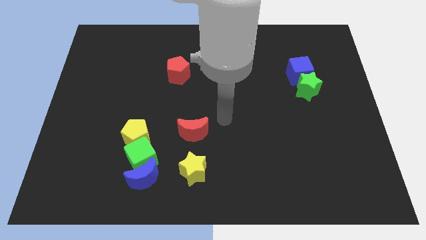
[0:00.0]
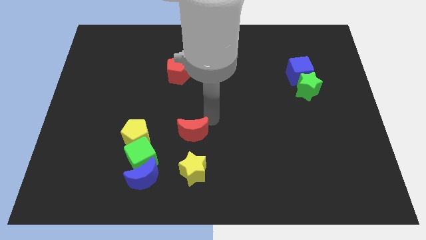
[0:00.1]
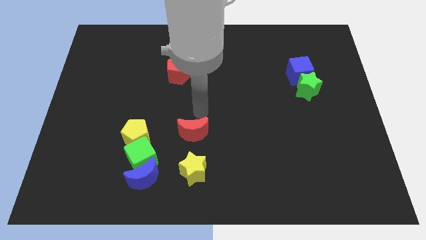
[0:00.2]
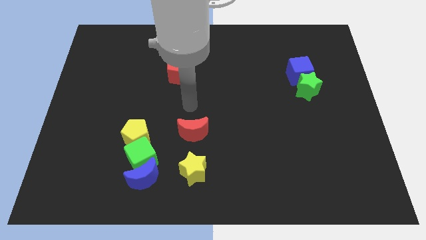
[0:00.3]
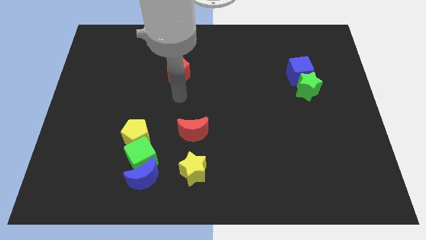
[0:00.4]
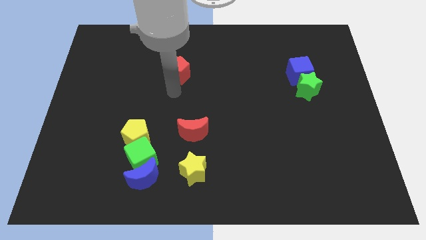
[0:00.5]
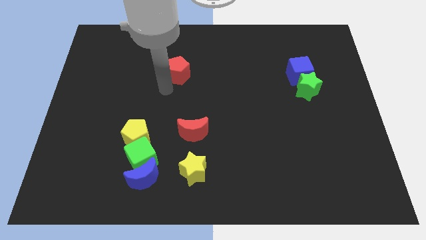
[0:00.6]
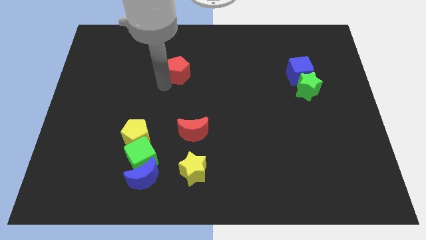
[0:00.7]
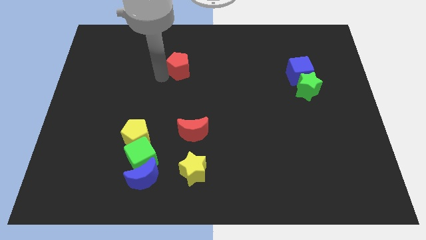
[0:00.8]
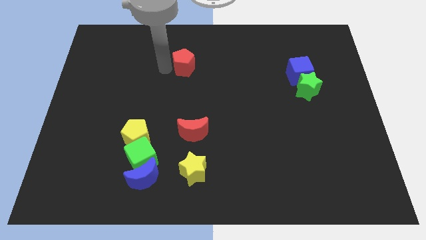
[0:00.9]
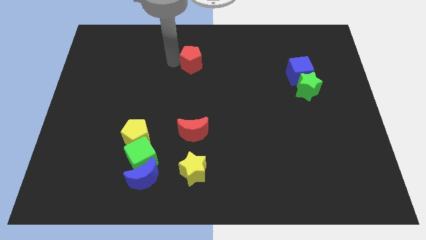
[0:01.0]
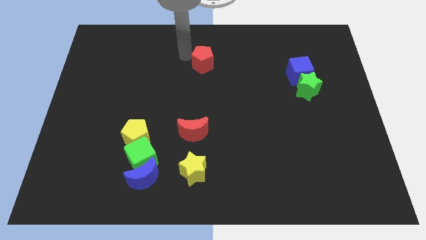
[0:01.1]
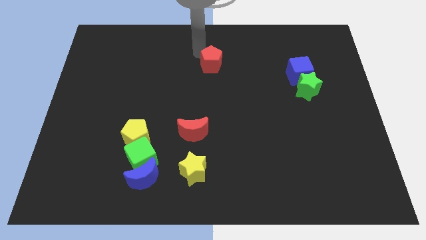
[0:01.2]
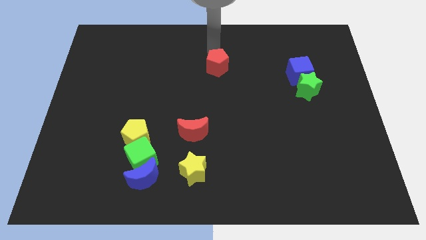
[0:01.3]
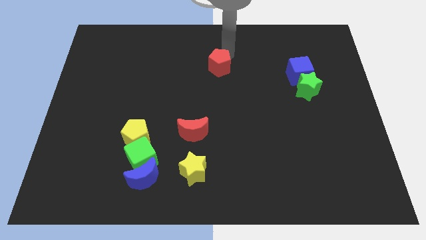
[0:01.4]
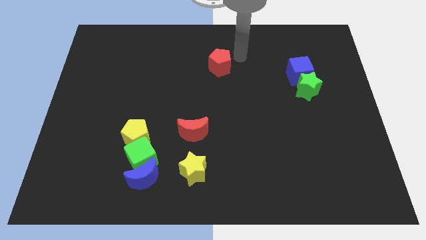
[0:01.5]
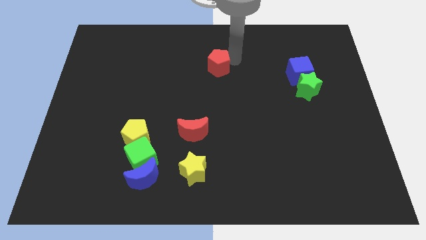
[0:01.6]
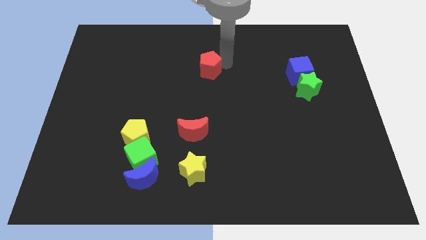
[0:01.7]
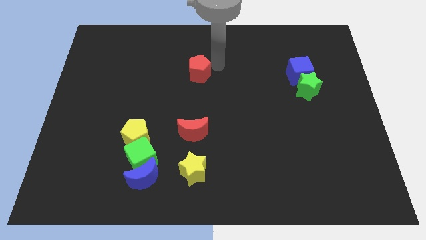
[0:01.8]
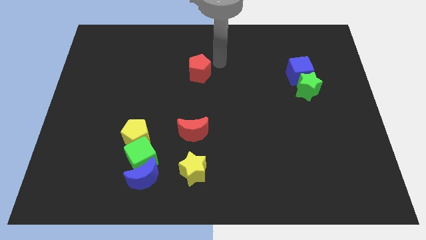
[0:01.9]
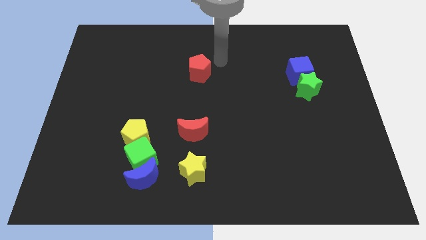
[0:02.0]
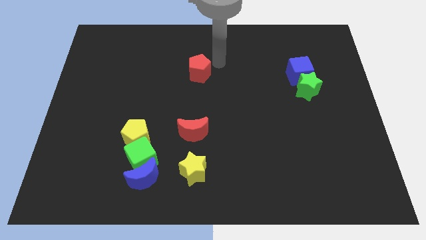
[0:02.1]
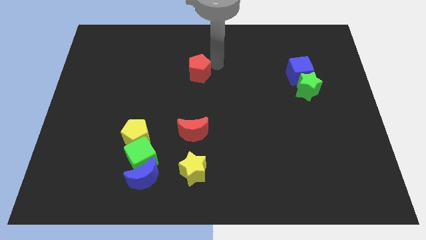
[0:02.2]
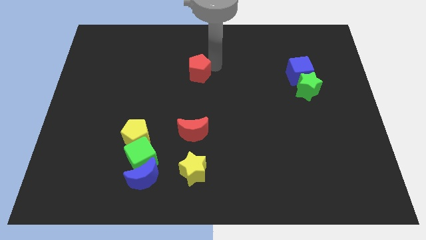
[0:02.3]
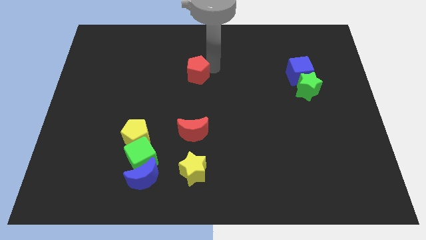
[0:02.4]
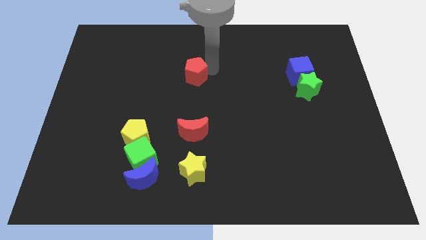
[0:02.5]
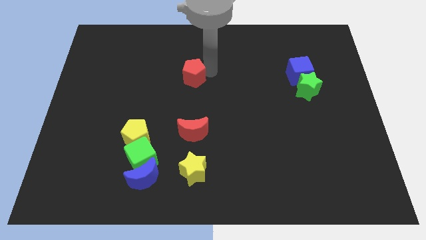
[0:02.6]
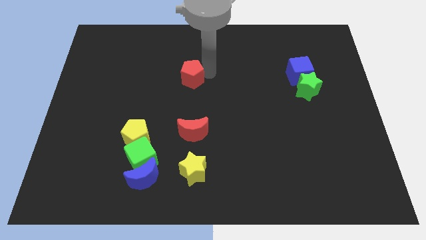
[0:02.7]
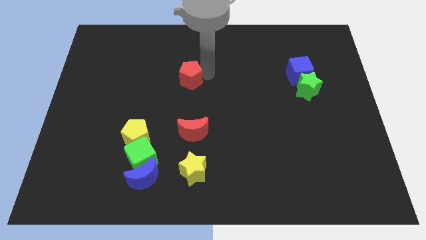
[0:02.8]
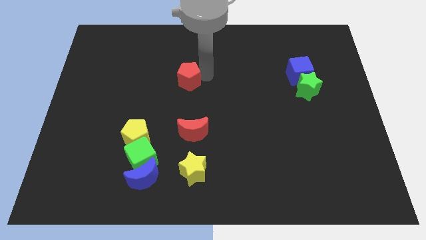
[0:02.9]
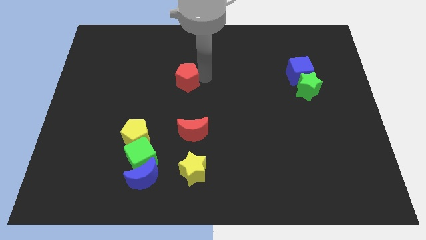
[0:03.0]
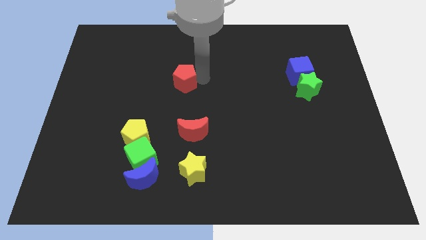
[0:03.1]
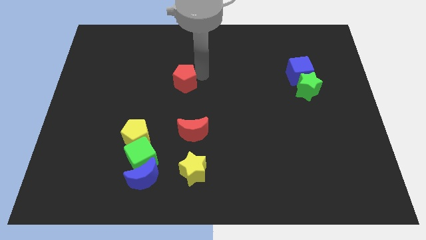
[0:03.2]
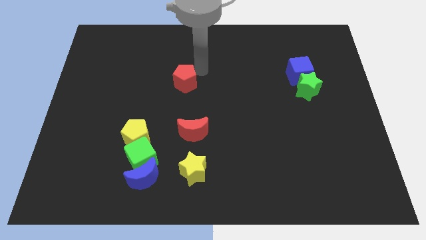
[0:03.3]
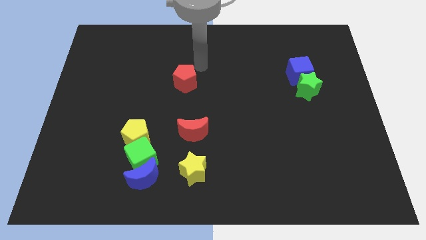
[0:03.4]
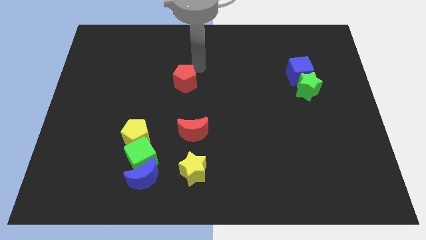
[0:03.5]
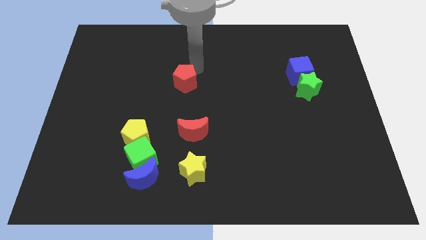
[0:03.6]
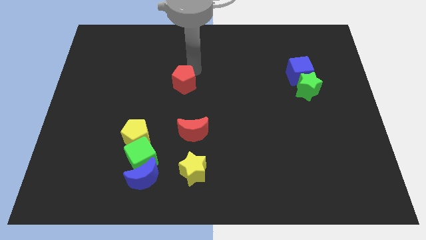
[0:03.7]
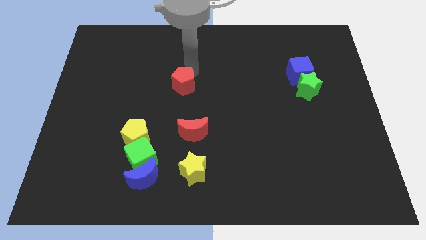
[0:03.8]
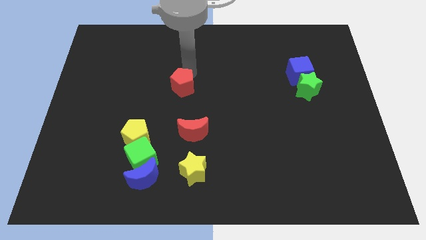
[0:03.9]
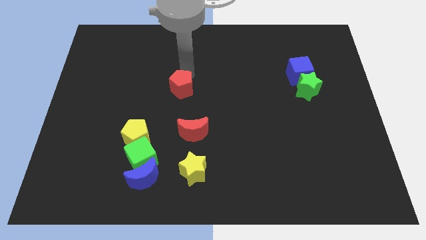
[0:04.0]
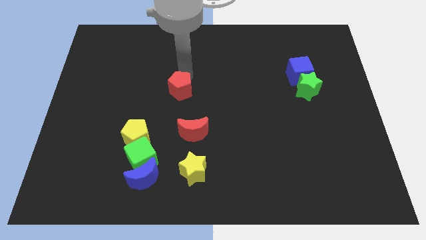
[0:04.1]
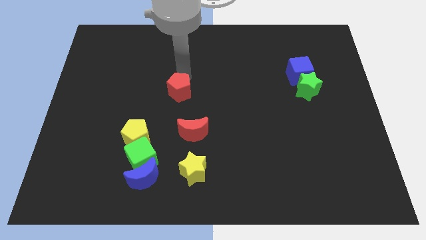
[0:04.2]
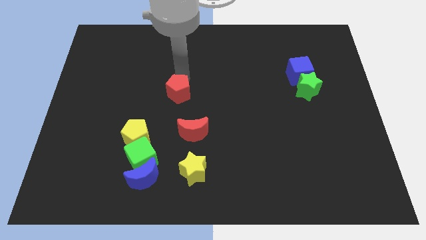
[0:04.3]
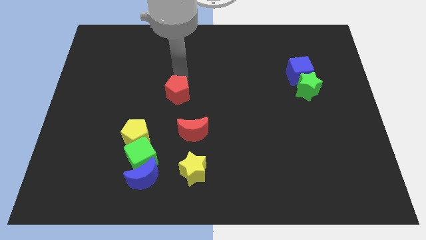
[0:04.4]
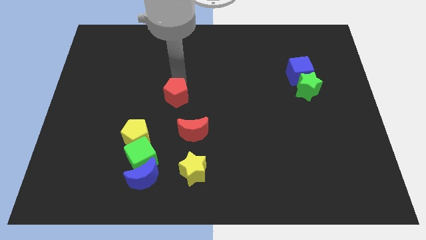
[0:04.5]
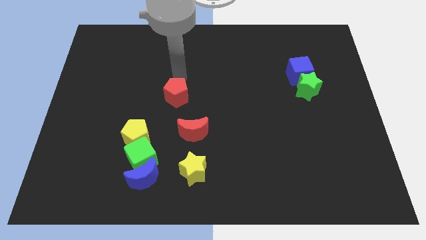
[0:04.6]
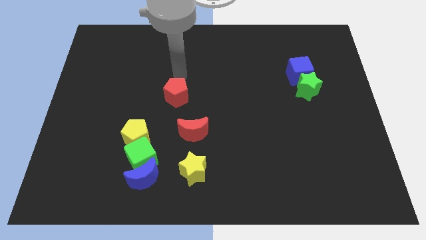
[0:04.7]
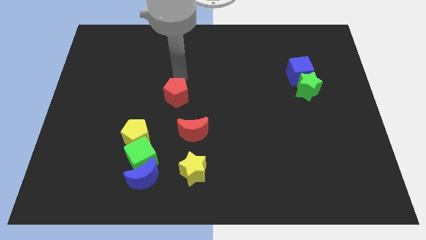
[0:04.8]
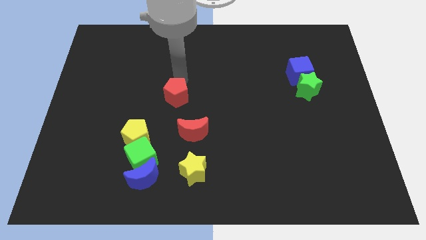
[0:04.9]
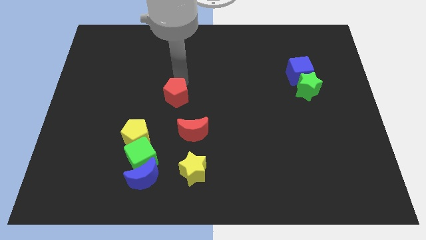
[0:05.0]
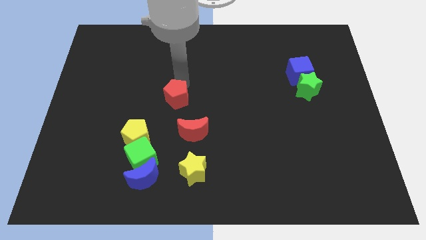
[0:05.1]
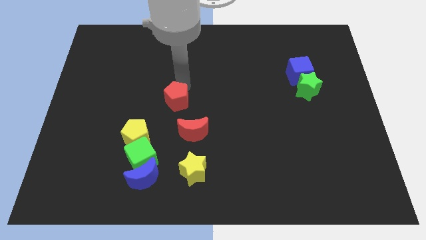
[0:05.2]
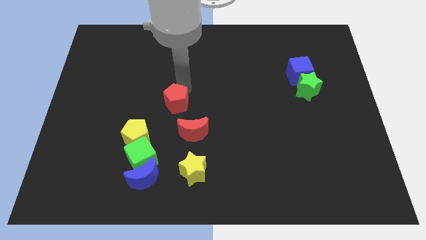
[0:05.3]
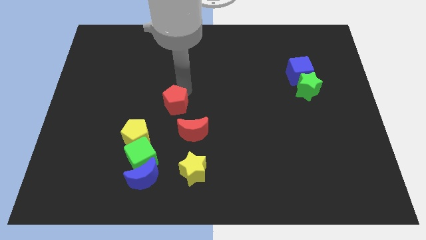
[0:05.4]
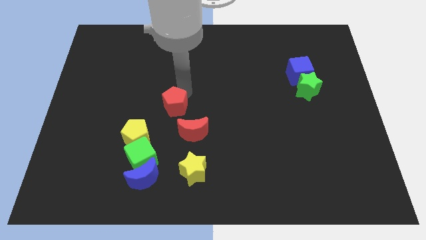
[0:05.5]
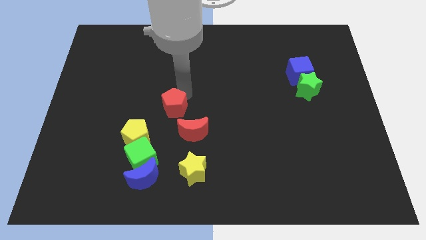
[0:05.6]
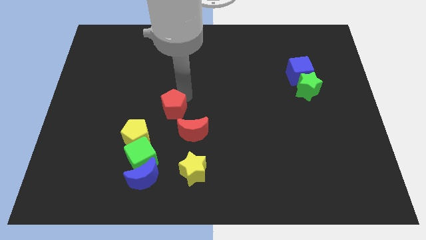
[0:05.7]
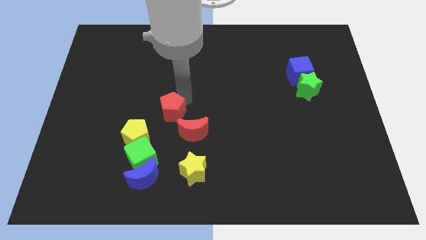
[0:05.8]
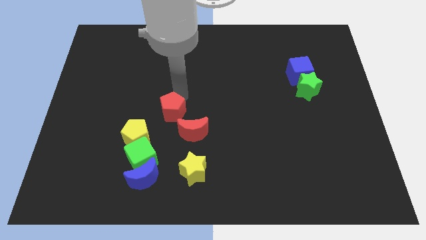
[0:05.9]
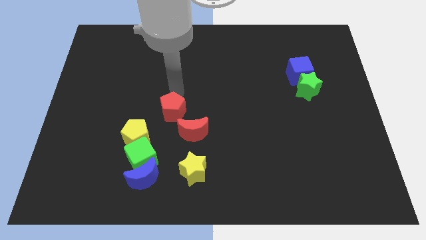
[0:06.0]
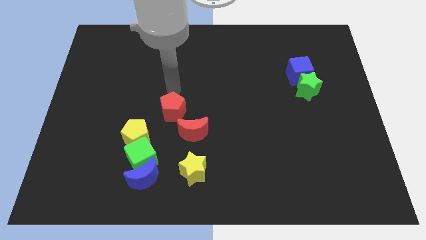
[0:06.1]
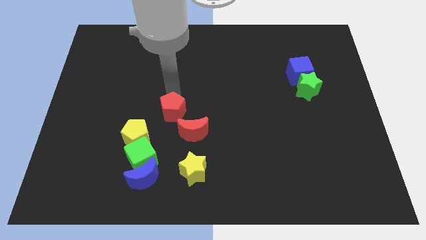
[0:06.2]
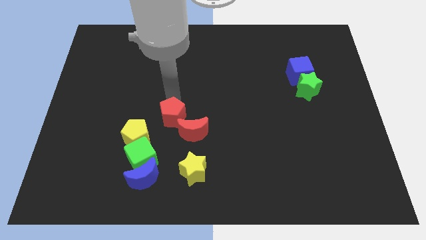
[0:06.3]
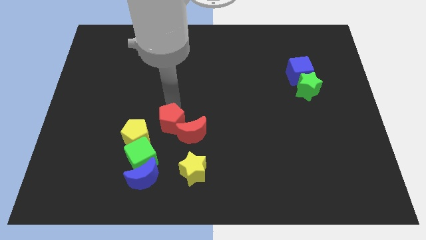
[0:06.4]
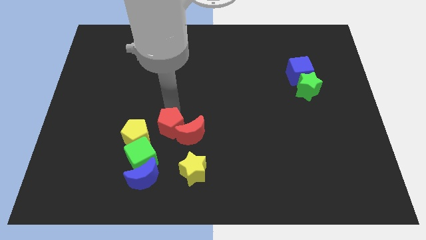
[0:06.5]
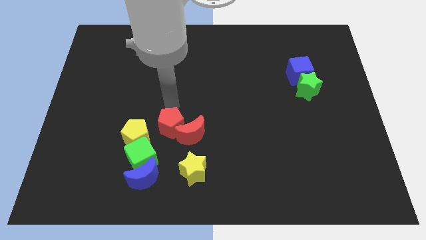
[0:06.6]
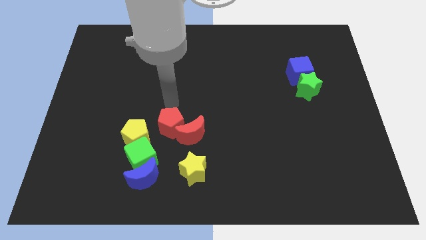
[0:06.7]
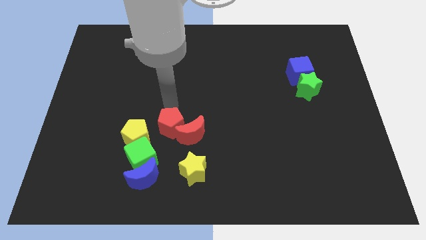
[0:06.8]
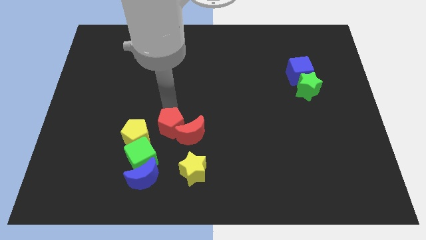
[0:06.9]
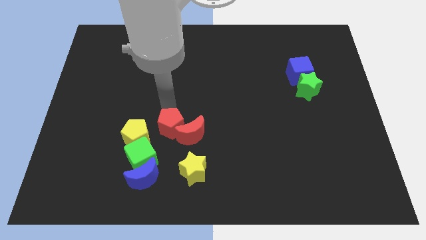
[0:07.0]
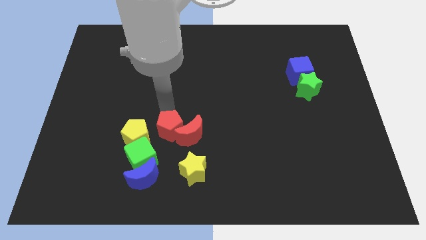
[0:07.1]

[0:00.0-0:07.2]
move the red pentagon to the top left side of the yellow star

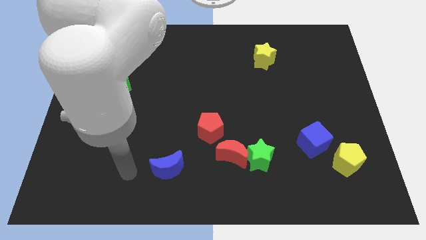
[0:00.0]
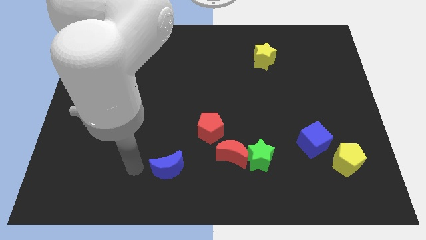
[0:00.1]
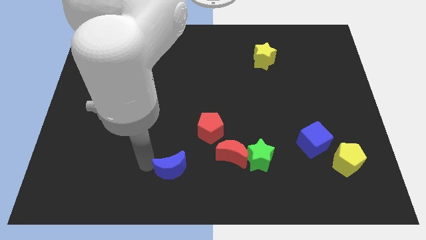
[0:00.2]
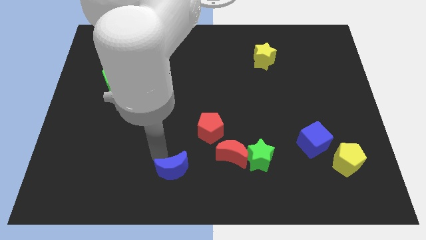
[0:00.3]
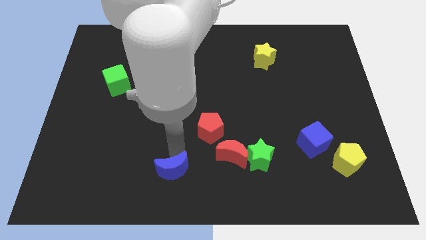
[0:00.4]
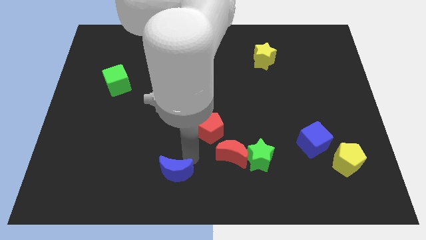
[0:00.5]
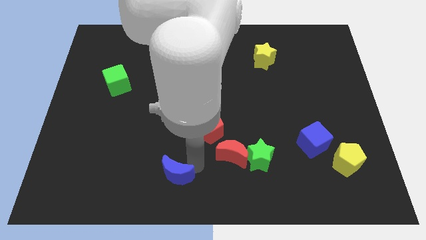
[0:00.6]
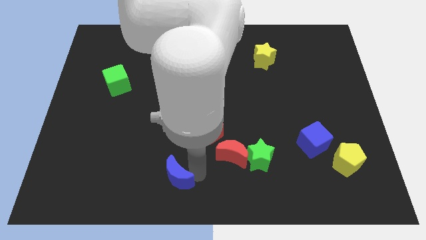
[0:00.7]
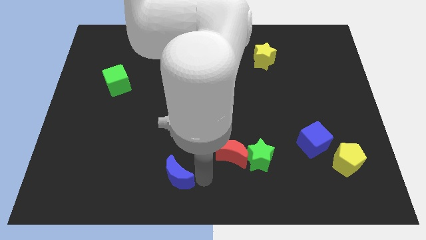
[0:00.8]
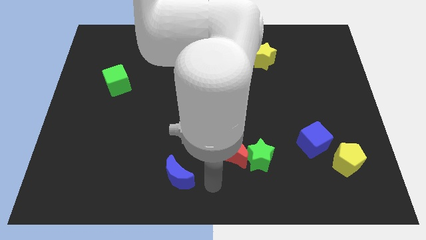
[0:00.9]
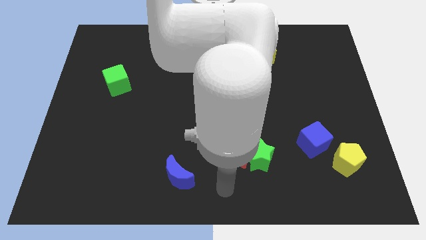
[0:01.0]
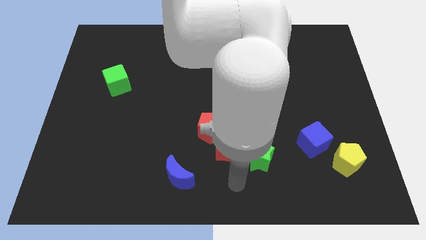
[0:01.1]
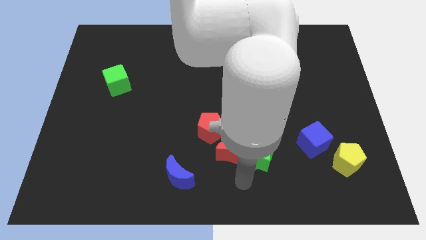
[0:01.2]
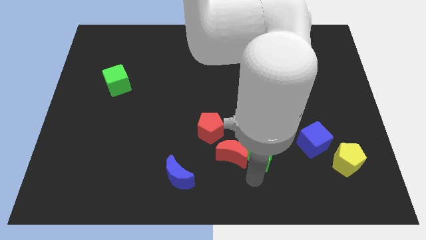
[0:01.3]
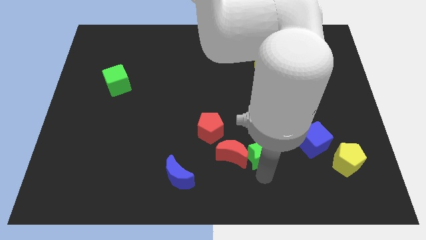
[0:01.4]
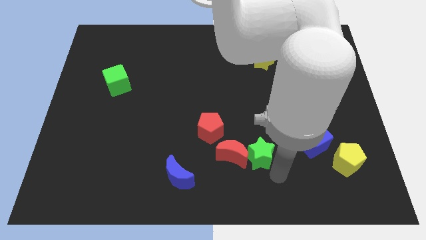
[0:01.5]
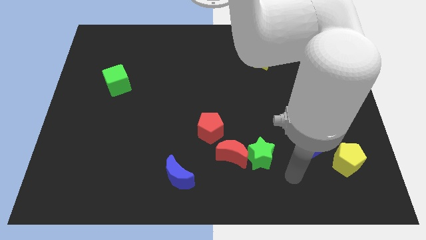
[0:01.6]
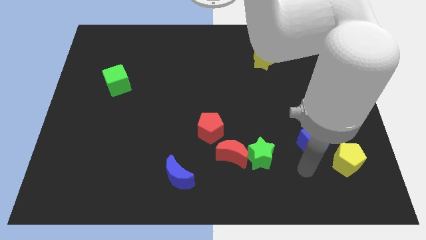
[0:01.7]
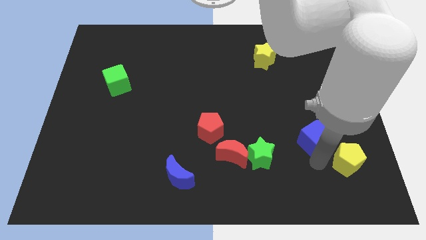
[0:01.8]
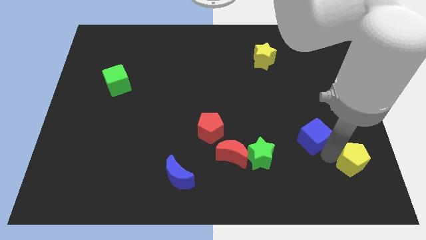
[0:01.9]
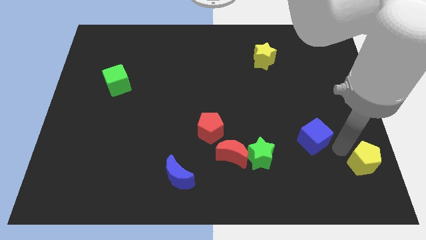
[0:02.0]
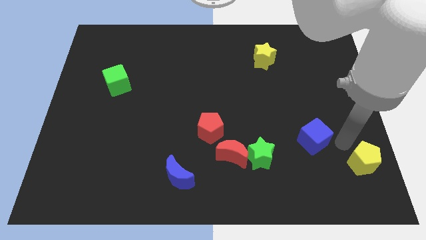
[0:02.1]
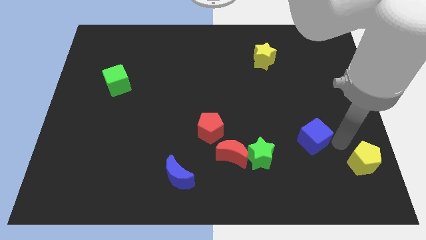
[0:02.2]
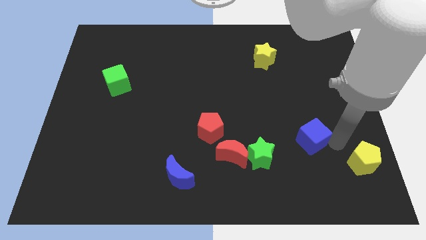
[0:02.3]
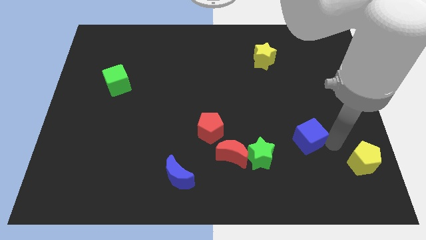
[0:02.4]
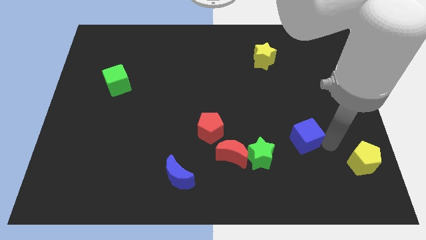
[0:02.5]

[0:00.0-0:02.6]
push the blue cube to the top right of the green star
